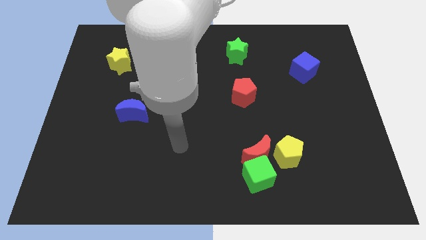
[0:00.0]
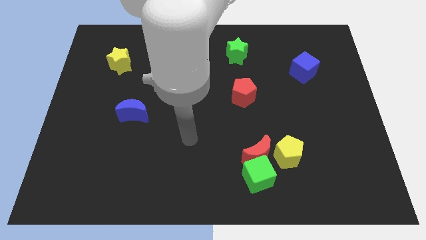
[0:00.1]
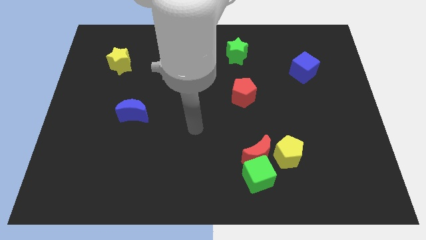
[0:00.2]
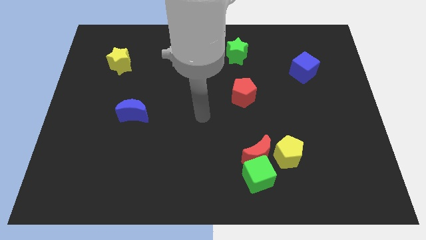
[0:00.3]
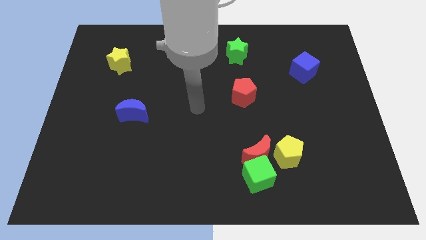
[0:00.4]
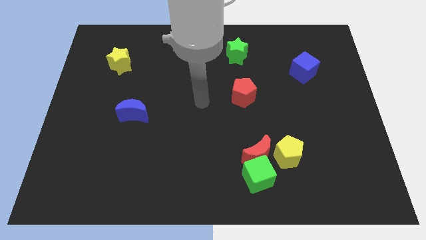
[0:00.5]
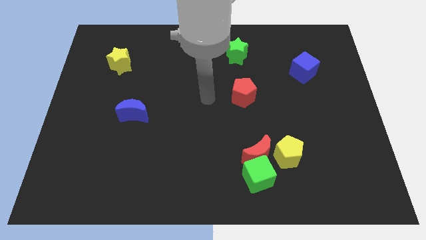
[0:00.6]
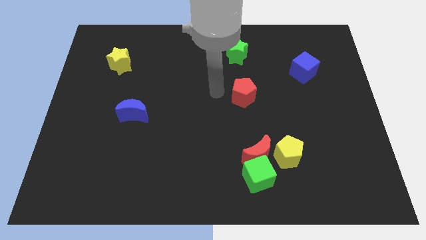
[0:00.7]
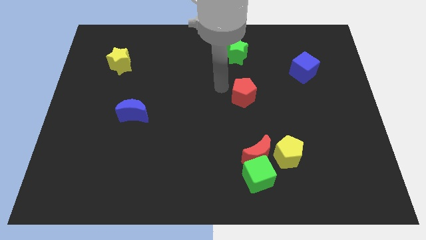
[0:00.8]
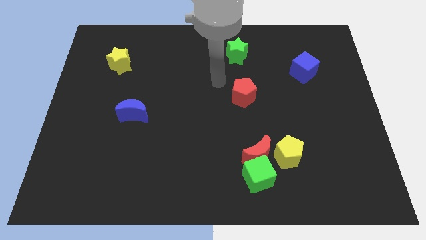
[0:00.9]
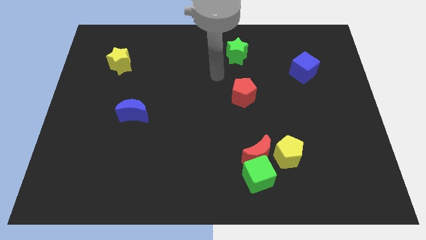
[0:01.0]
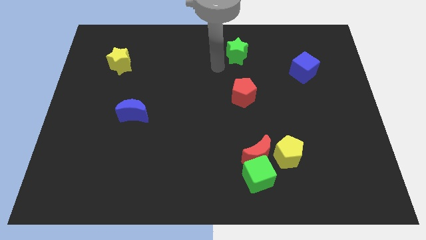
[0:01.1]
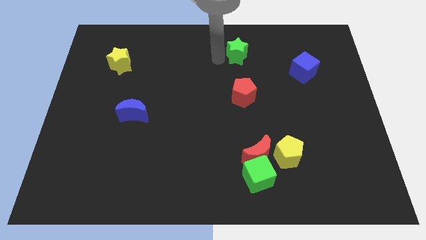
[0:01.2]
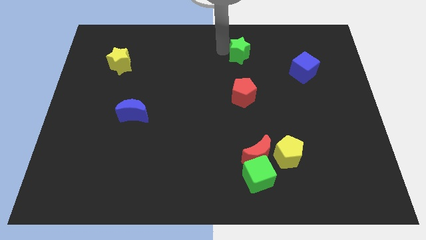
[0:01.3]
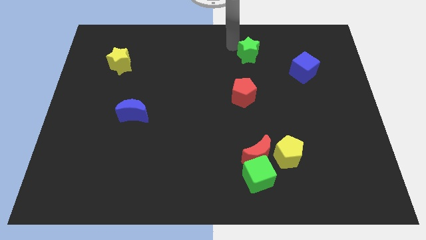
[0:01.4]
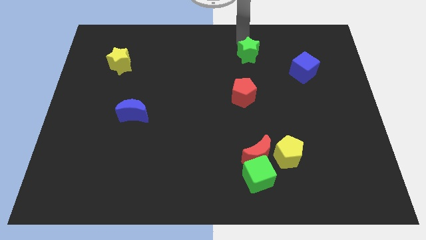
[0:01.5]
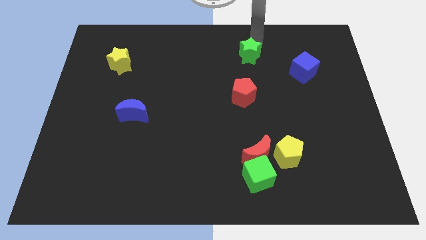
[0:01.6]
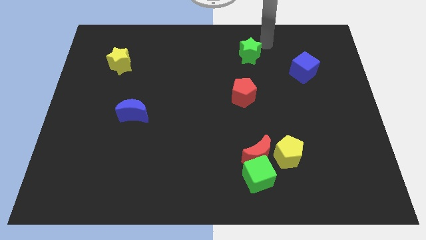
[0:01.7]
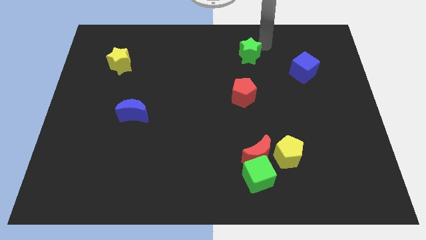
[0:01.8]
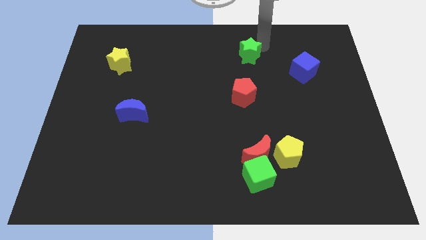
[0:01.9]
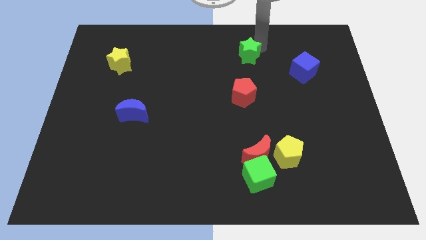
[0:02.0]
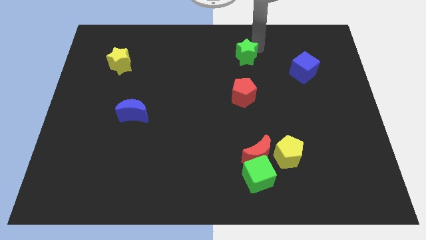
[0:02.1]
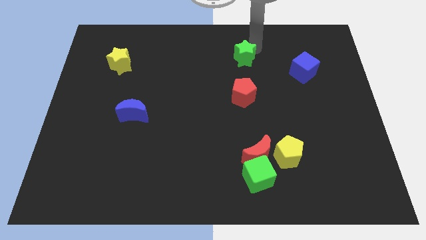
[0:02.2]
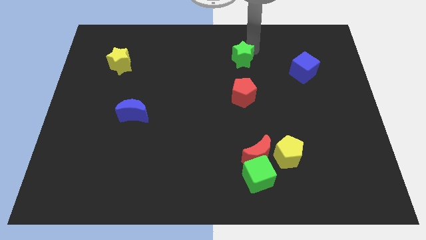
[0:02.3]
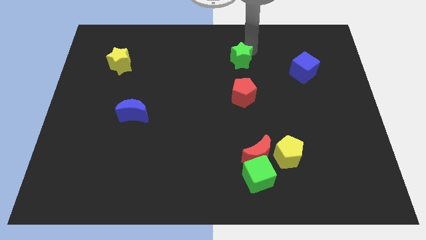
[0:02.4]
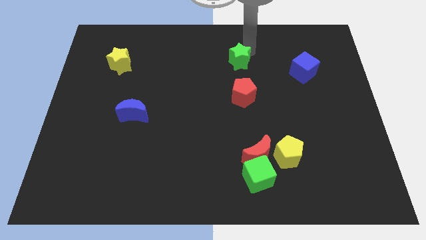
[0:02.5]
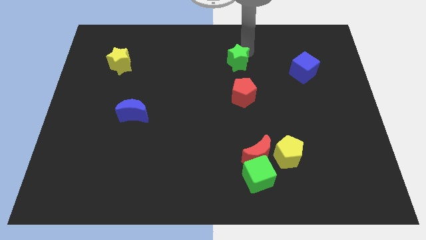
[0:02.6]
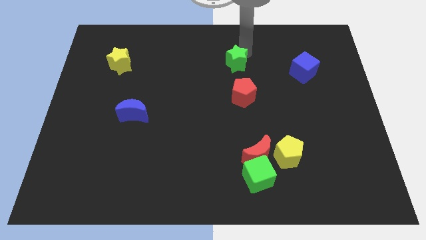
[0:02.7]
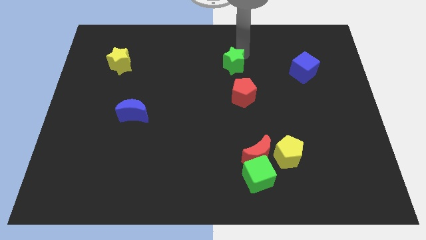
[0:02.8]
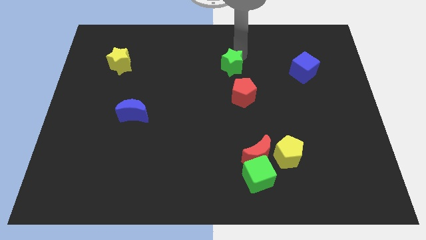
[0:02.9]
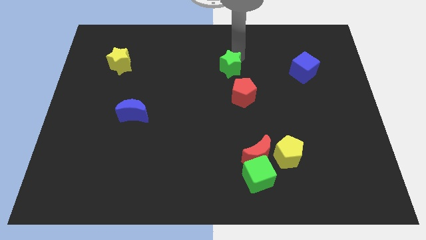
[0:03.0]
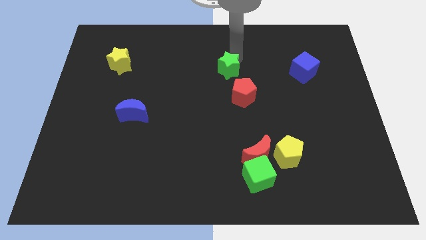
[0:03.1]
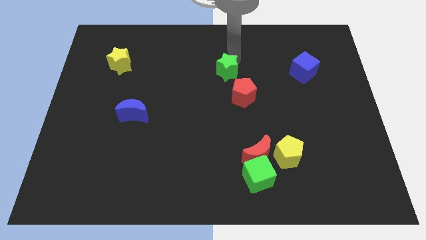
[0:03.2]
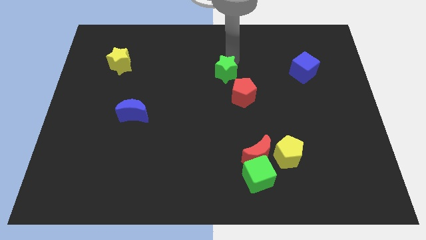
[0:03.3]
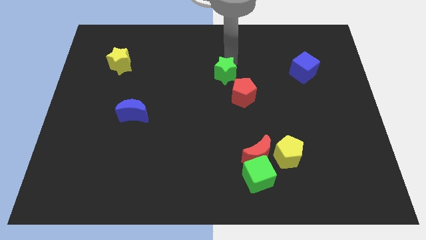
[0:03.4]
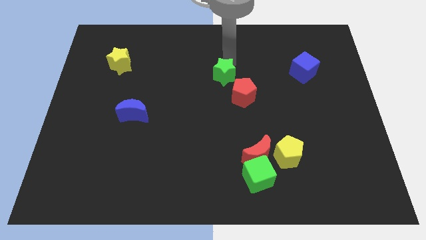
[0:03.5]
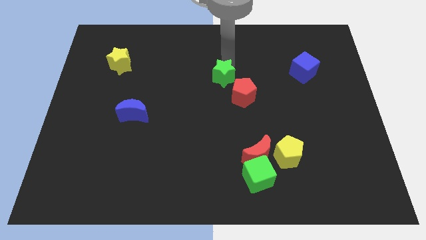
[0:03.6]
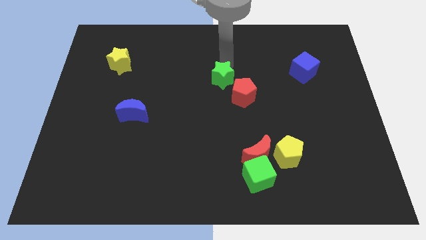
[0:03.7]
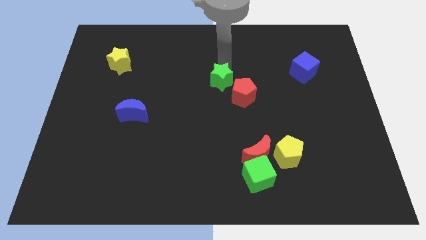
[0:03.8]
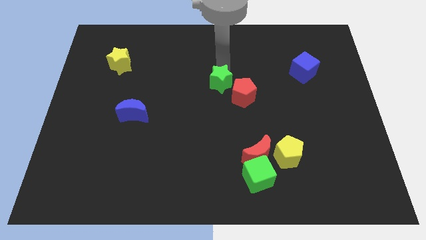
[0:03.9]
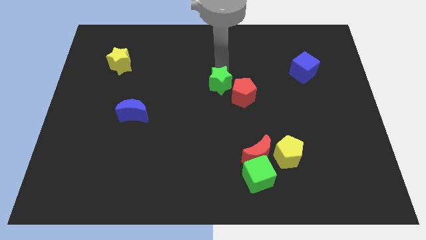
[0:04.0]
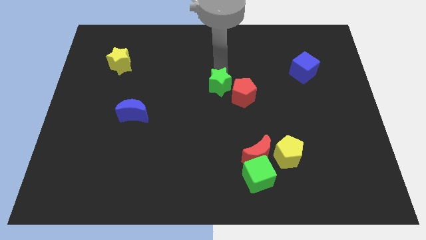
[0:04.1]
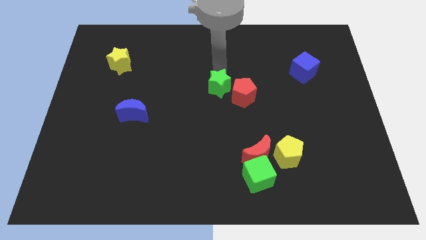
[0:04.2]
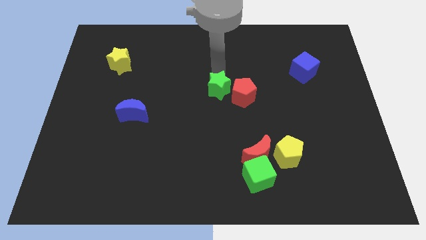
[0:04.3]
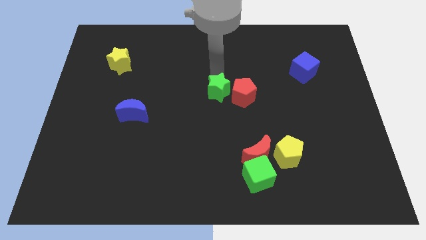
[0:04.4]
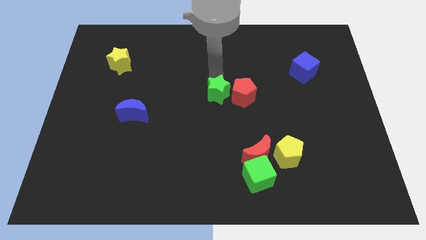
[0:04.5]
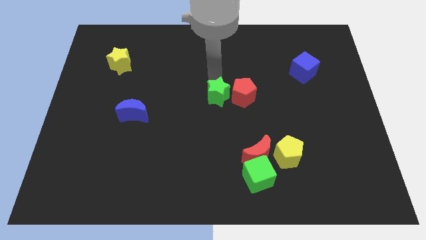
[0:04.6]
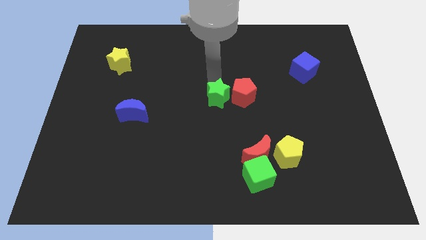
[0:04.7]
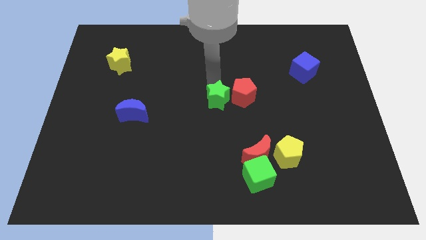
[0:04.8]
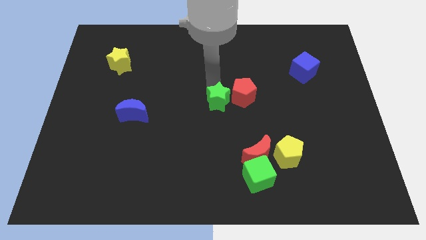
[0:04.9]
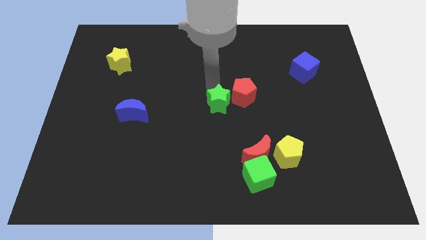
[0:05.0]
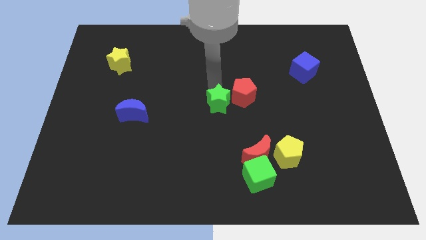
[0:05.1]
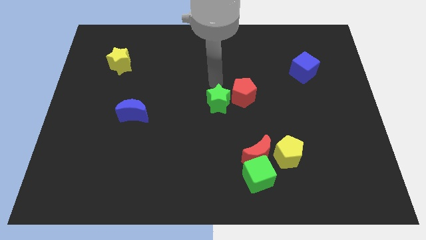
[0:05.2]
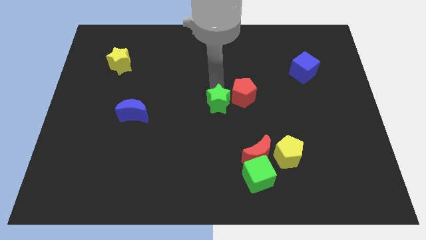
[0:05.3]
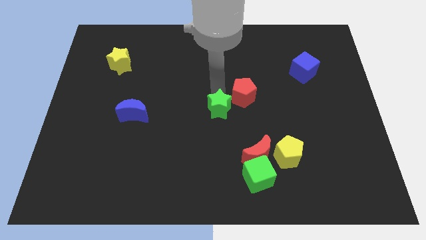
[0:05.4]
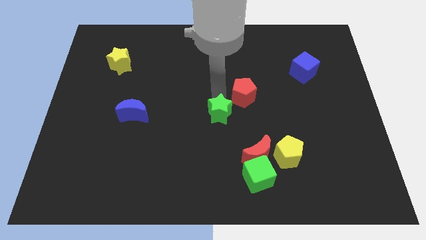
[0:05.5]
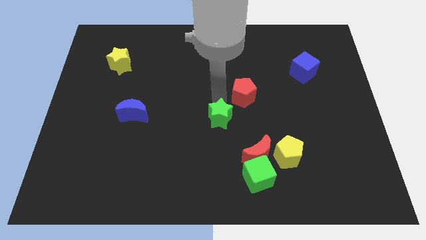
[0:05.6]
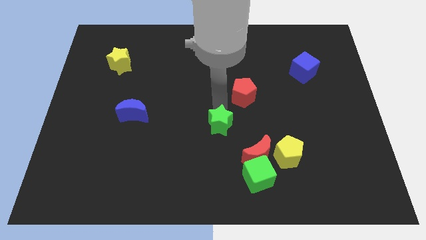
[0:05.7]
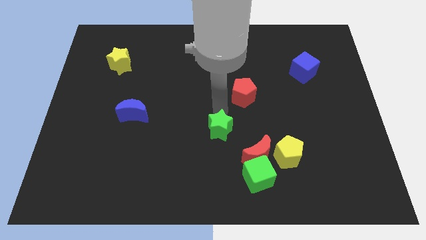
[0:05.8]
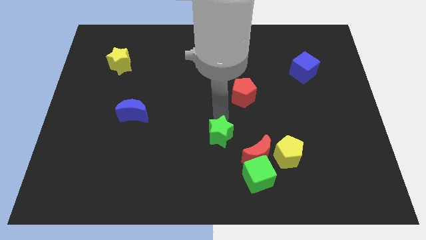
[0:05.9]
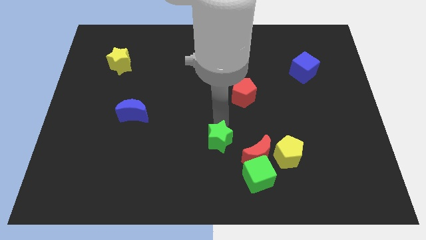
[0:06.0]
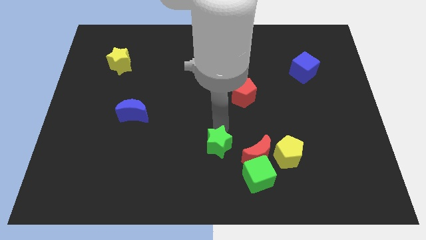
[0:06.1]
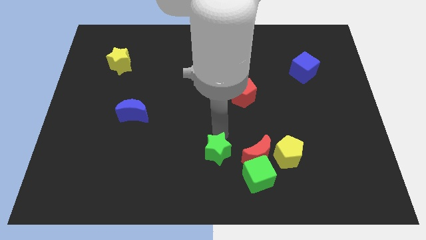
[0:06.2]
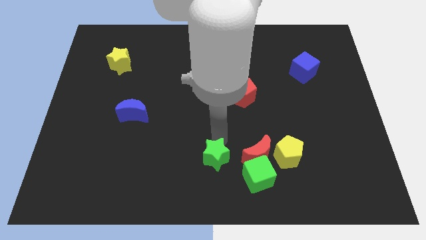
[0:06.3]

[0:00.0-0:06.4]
push the green star to the bottom side
